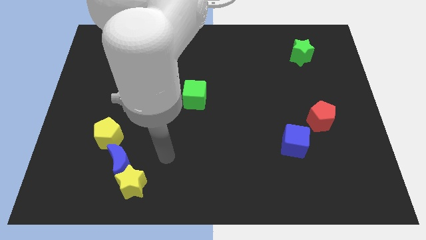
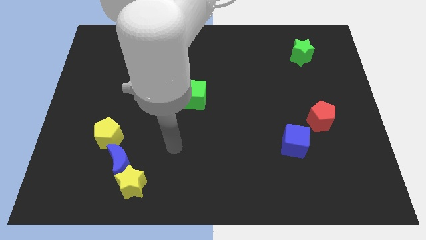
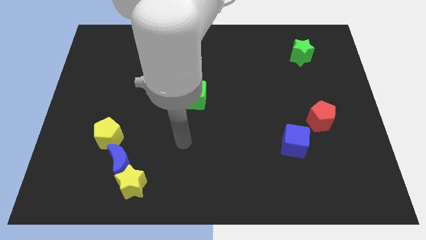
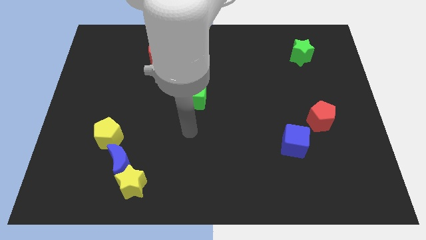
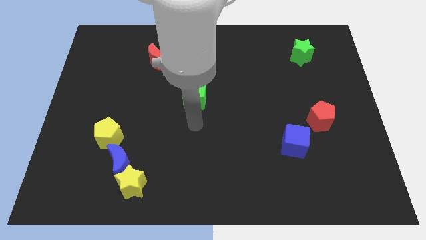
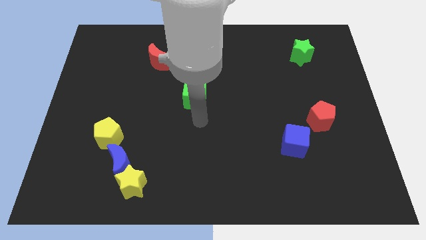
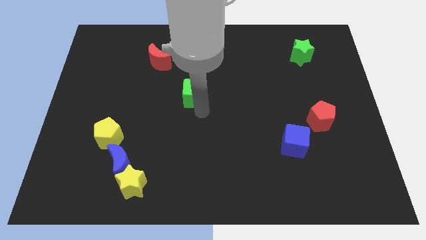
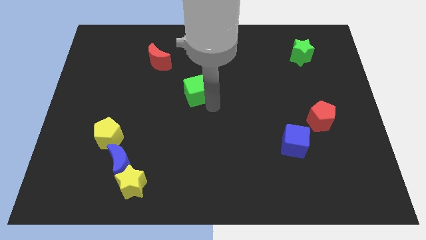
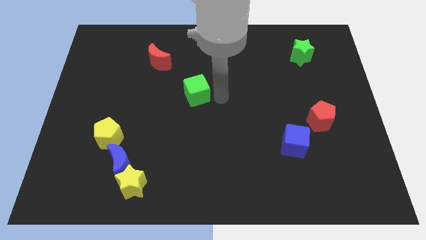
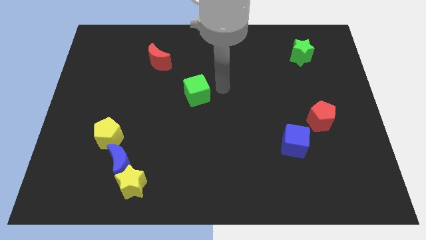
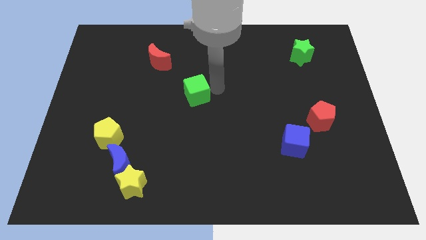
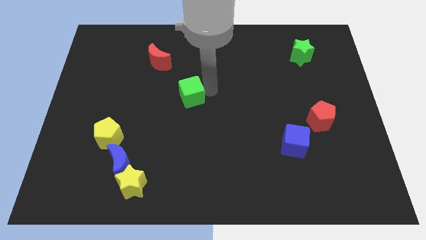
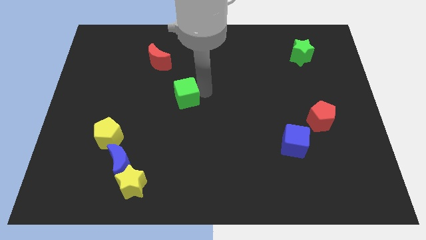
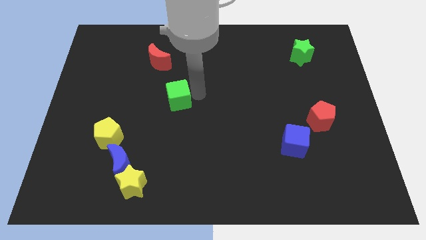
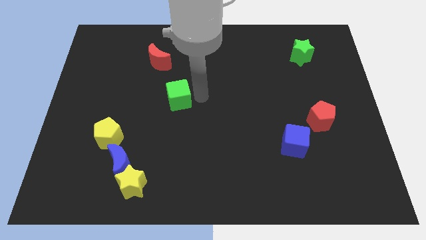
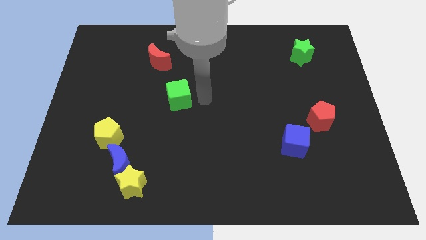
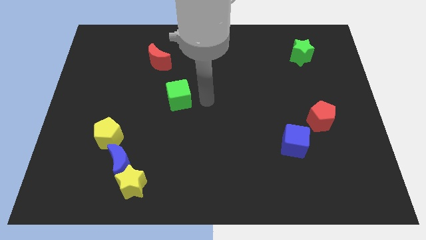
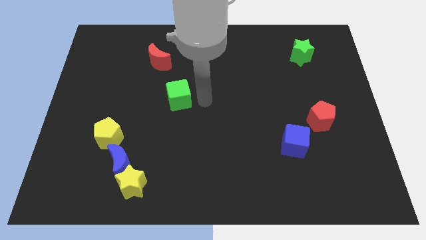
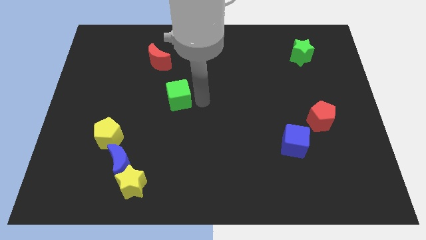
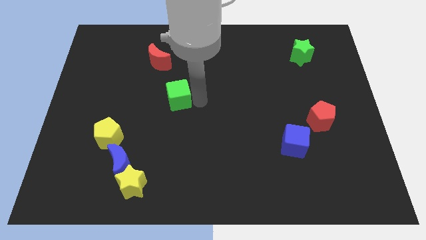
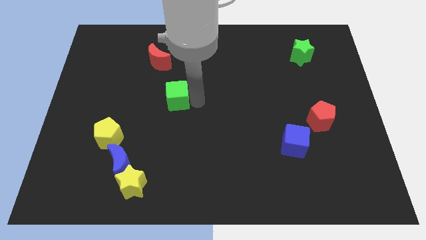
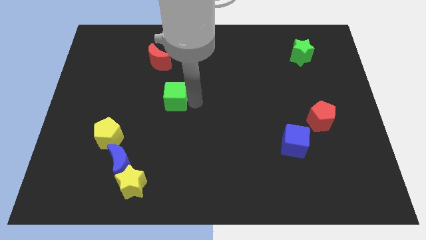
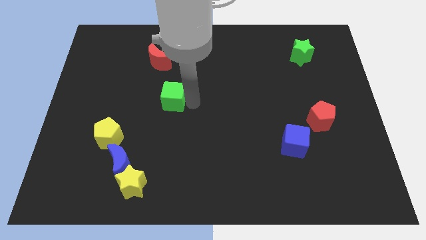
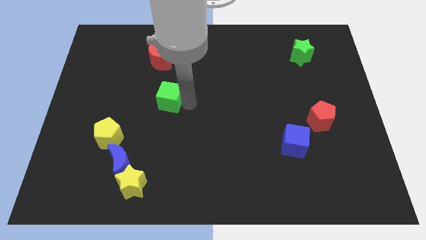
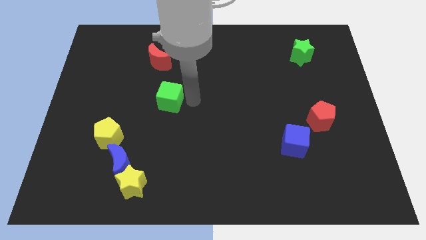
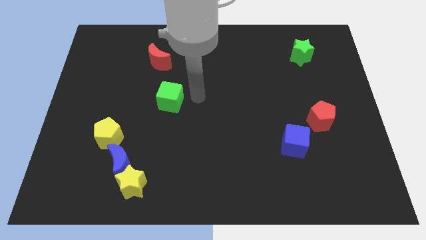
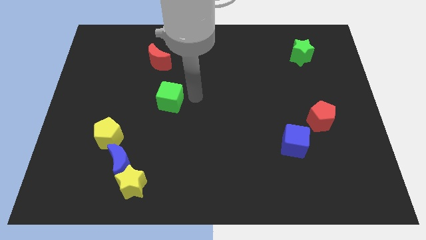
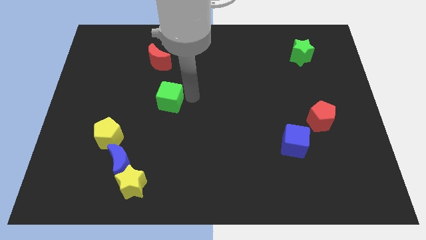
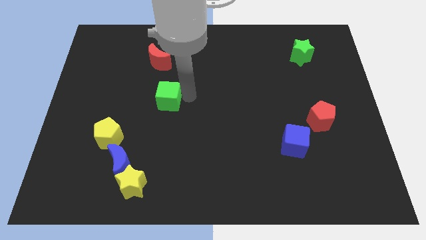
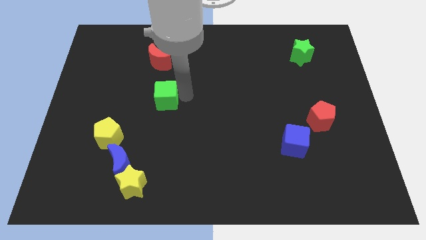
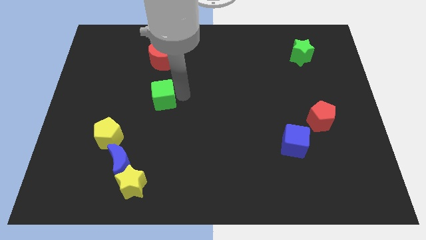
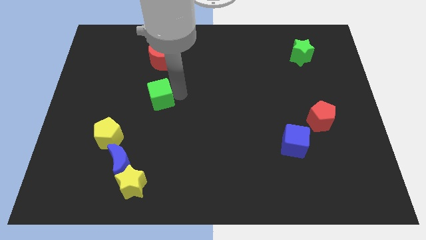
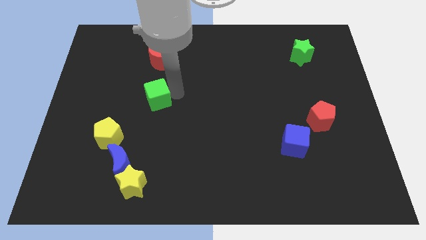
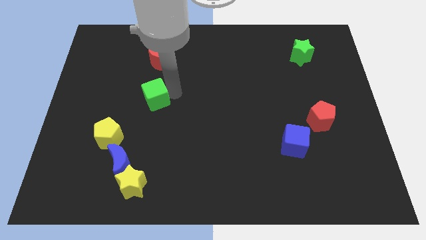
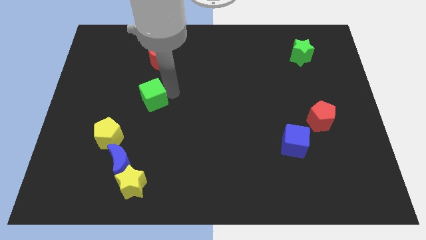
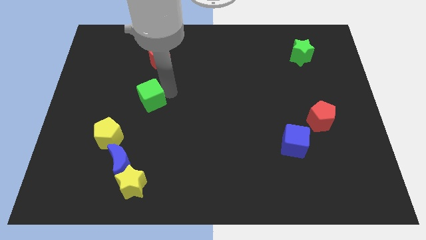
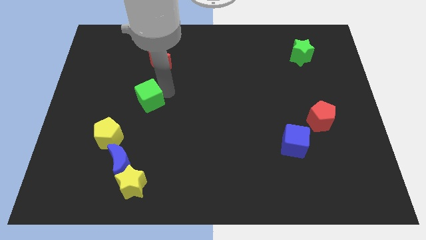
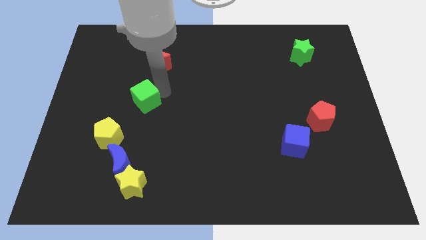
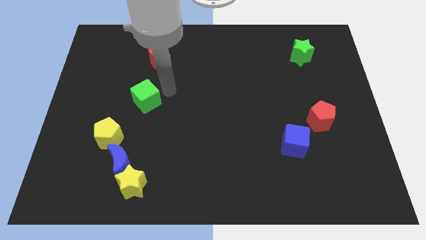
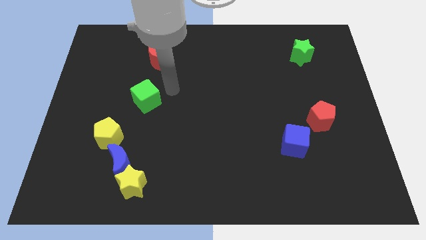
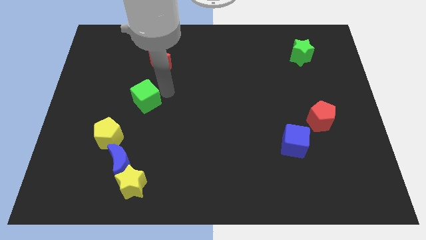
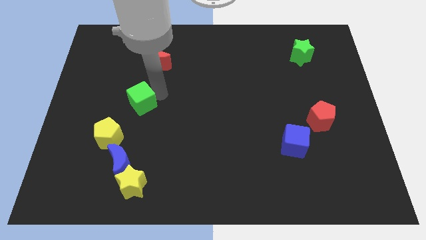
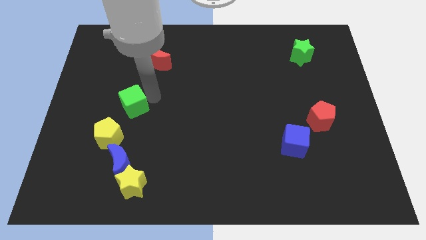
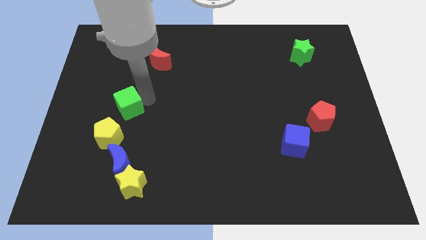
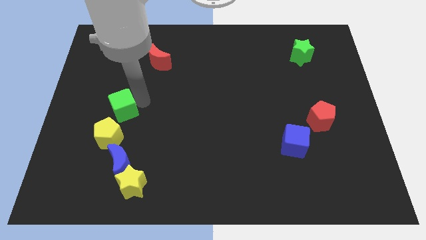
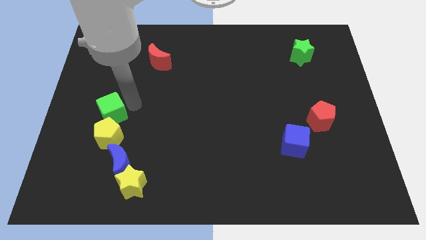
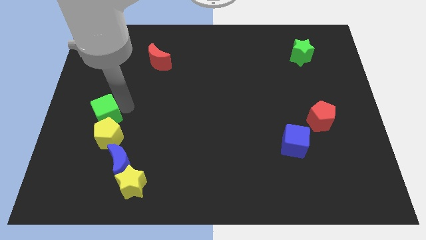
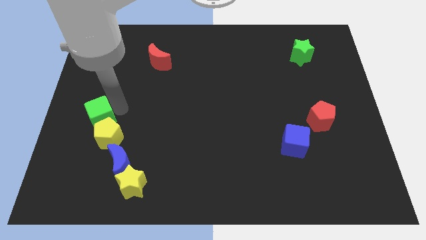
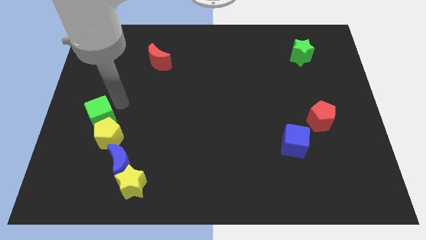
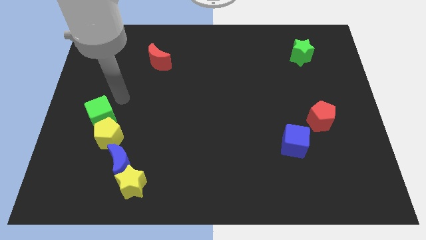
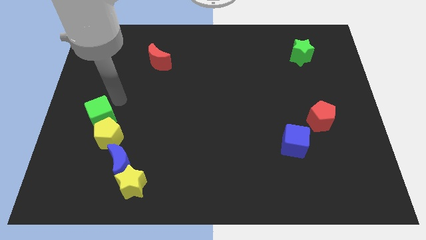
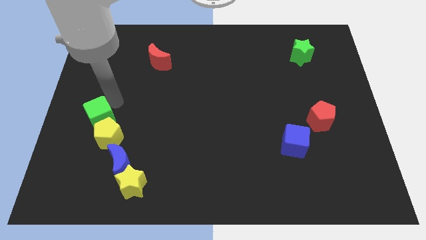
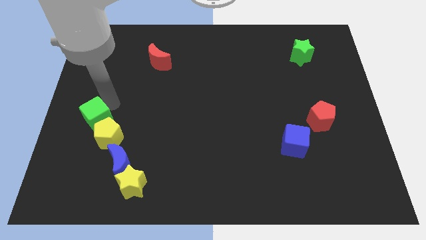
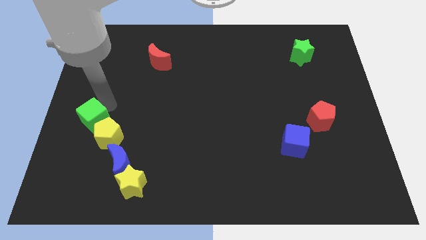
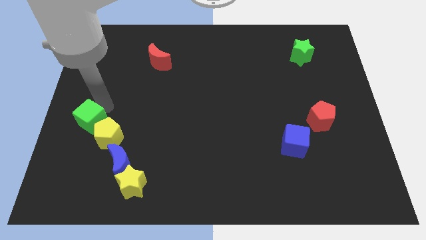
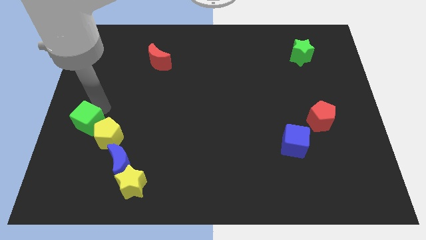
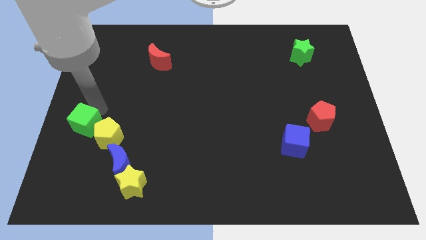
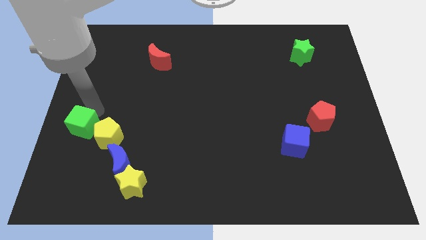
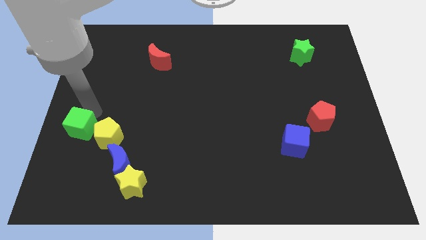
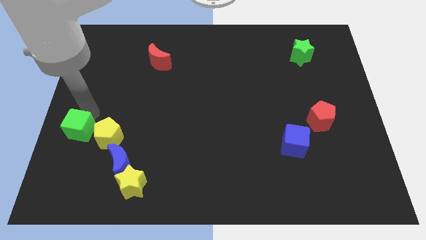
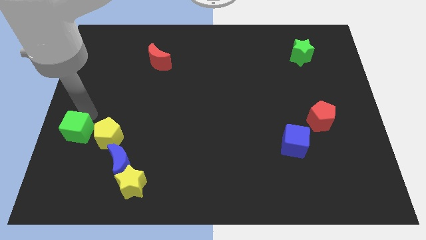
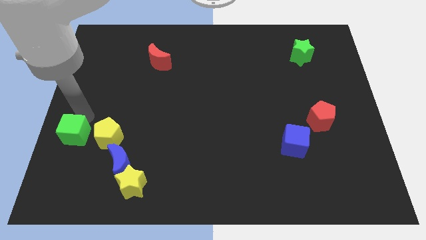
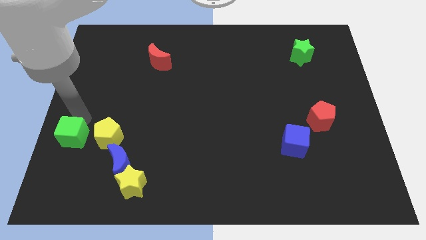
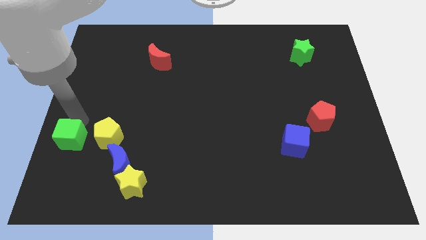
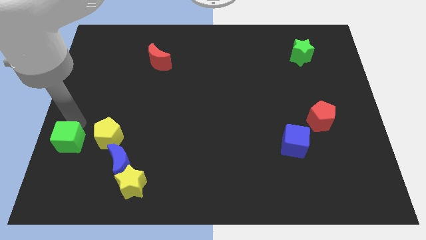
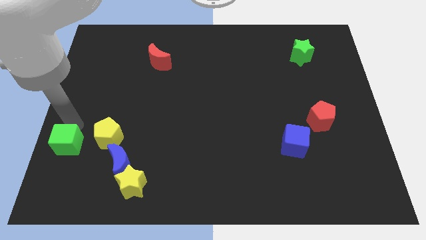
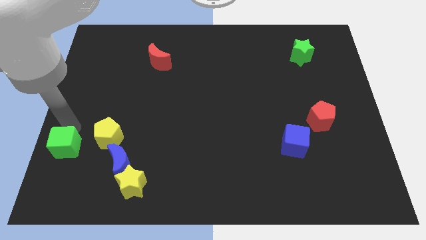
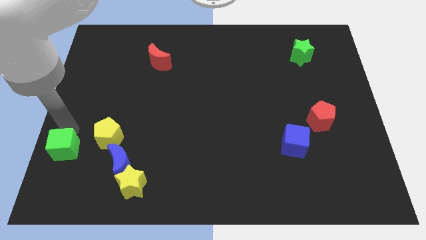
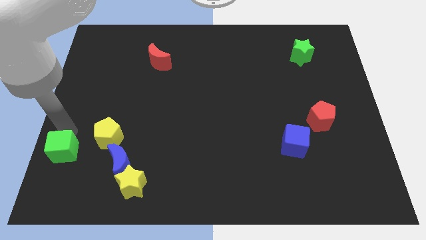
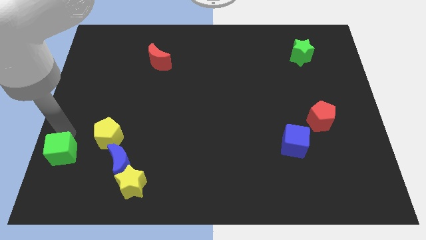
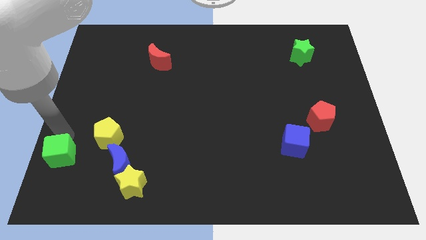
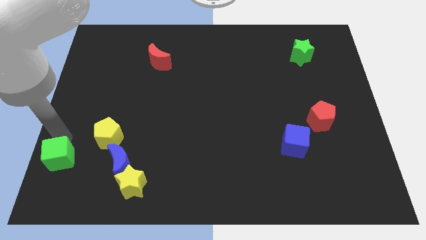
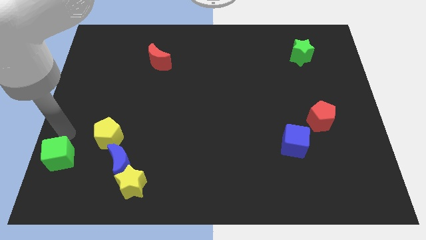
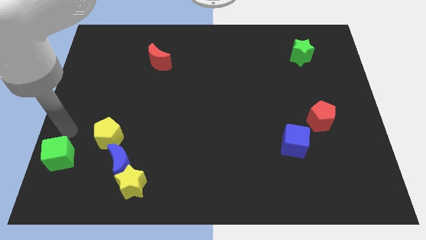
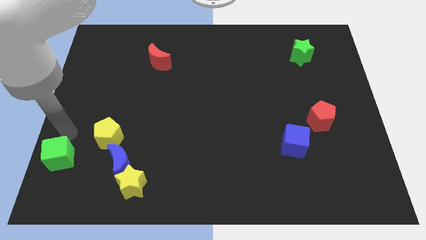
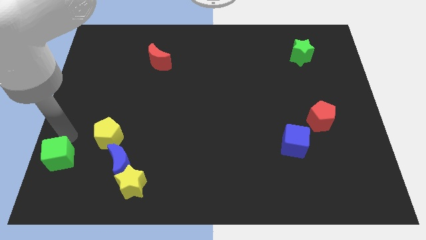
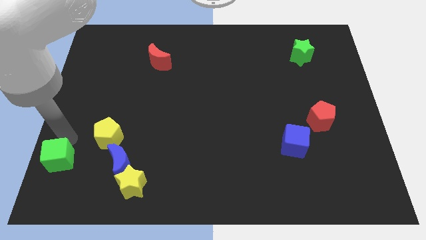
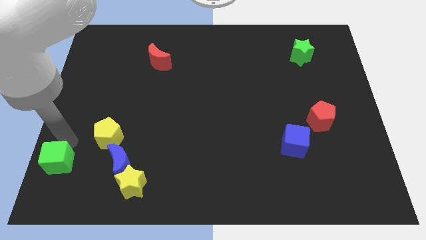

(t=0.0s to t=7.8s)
put the green cube to the bottom left
